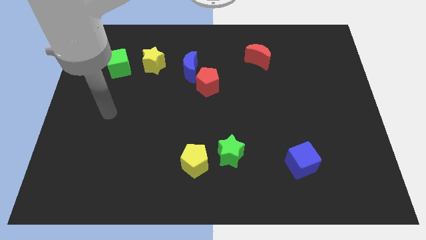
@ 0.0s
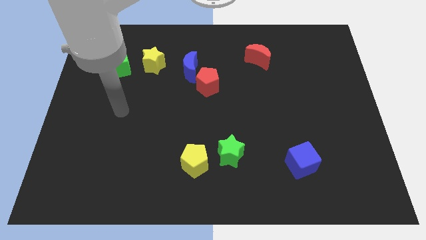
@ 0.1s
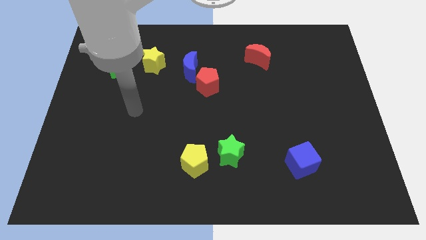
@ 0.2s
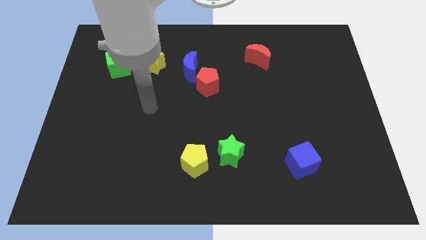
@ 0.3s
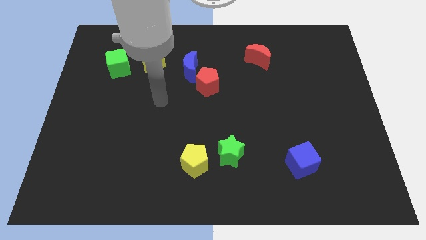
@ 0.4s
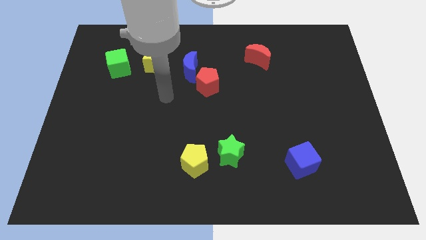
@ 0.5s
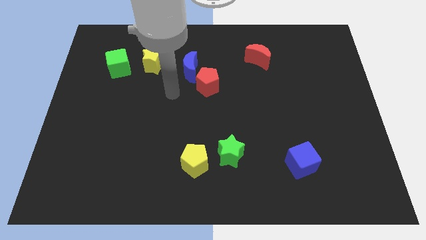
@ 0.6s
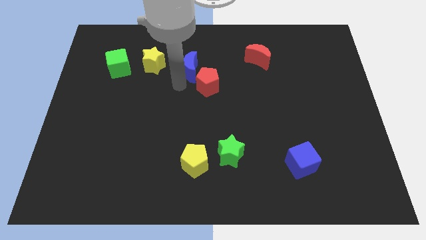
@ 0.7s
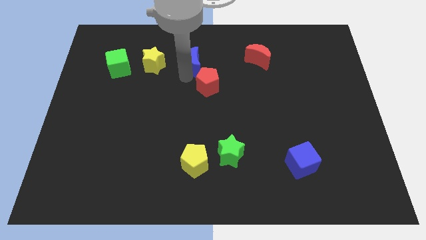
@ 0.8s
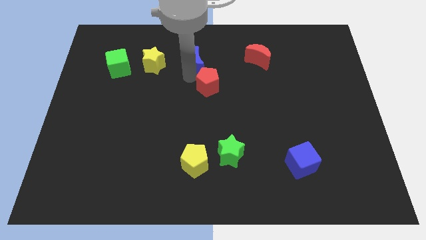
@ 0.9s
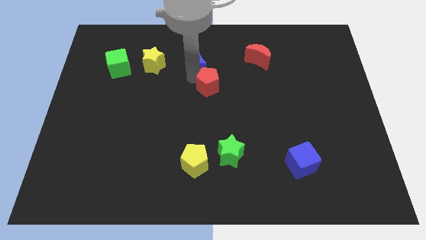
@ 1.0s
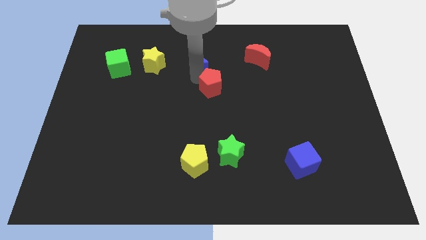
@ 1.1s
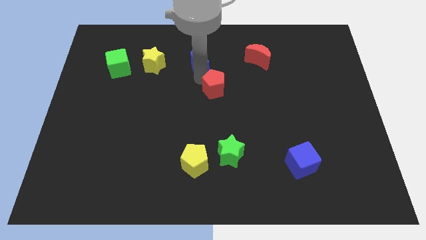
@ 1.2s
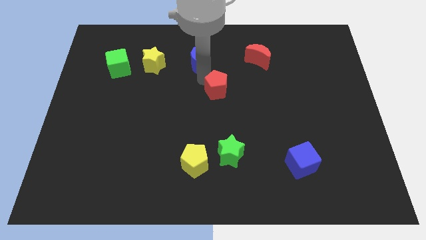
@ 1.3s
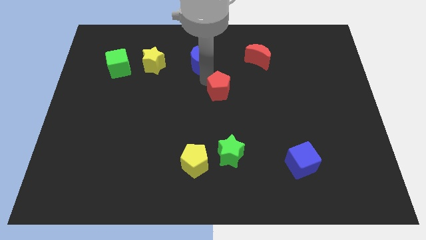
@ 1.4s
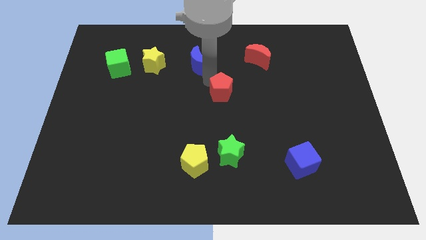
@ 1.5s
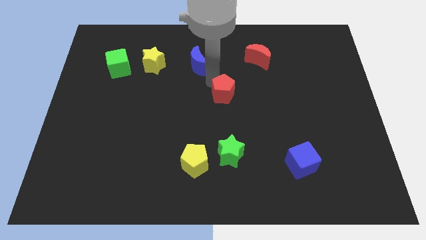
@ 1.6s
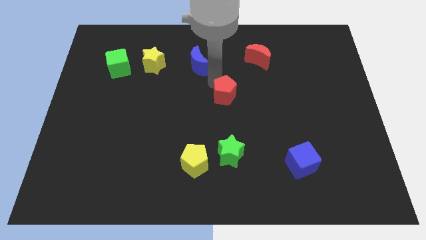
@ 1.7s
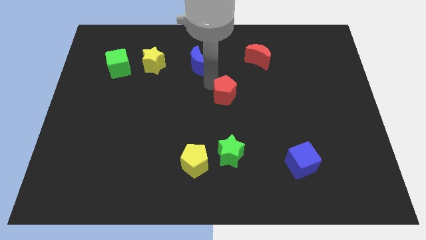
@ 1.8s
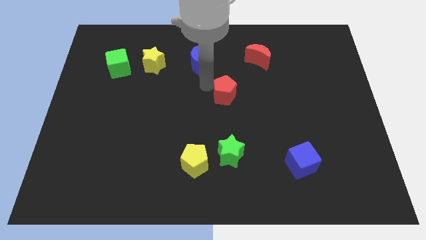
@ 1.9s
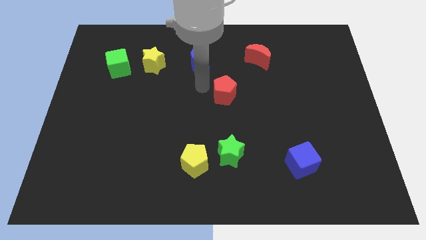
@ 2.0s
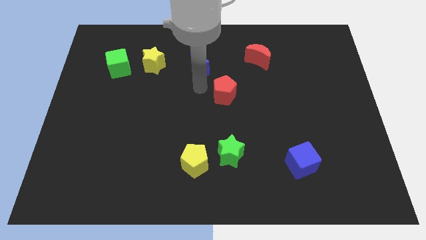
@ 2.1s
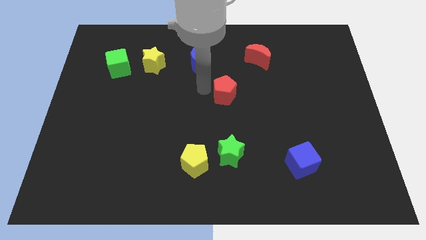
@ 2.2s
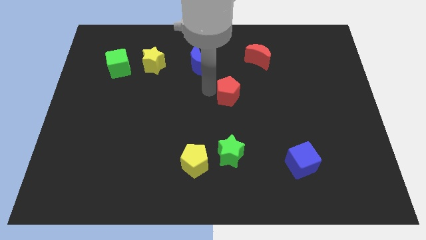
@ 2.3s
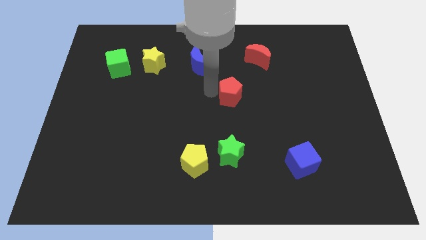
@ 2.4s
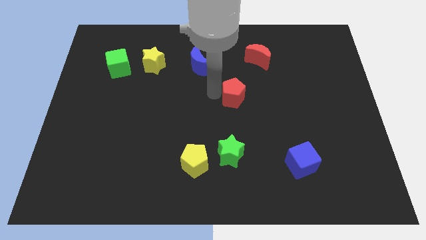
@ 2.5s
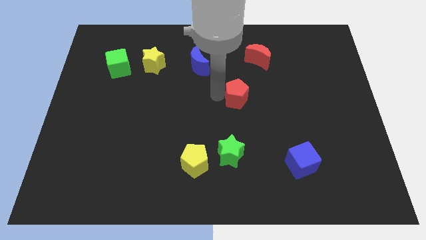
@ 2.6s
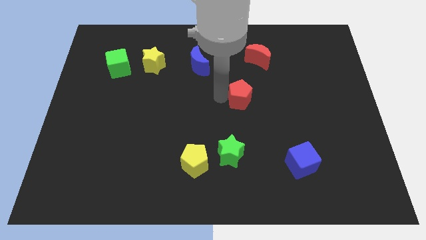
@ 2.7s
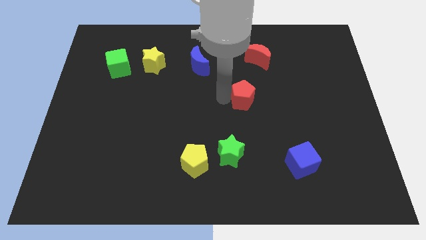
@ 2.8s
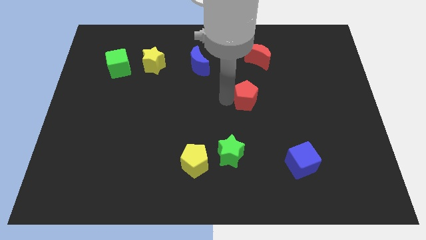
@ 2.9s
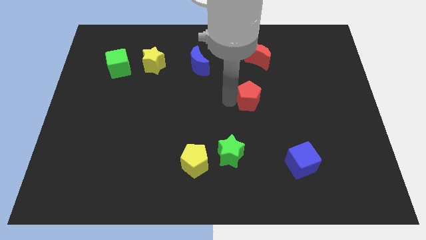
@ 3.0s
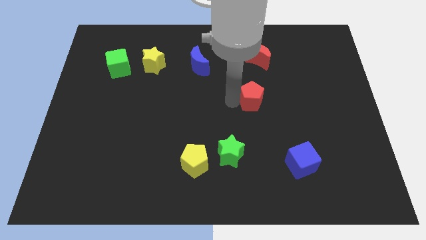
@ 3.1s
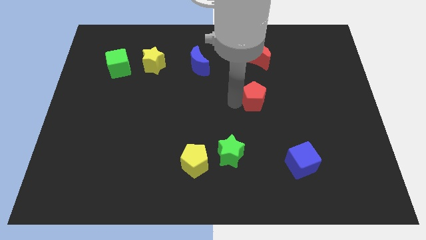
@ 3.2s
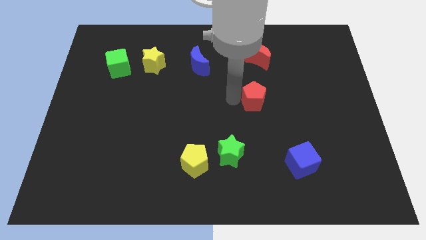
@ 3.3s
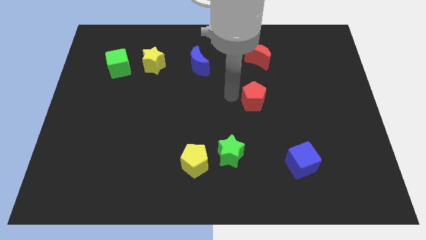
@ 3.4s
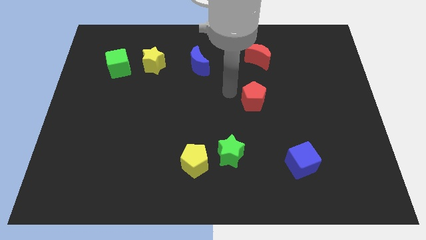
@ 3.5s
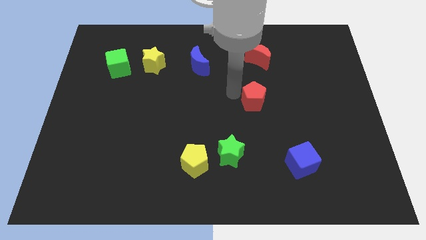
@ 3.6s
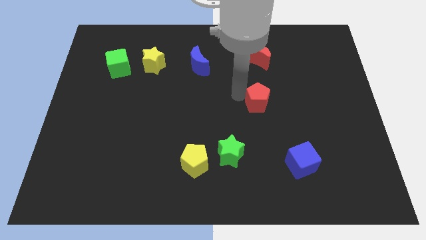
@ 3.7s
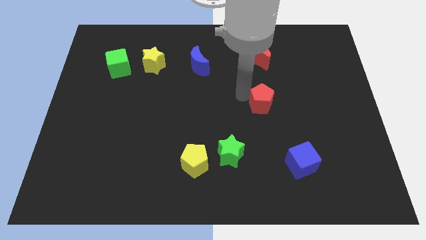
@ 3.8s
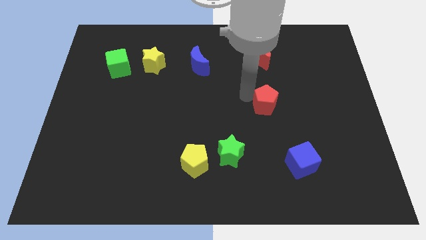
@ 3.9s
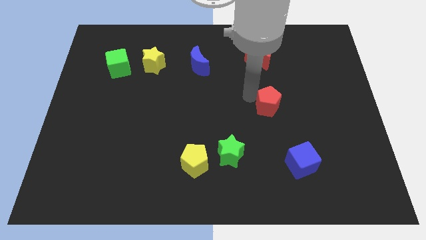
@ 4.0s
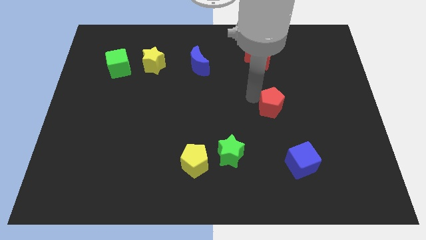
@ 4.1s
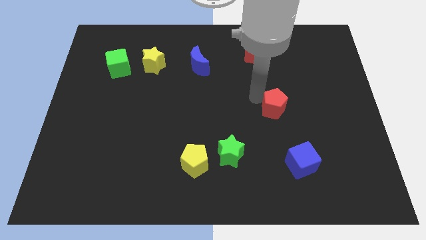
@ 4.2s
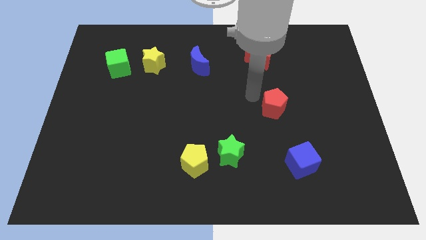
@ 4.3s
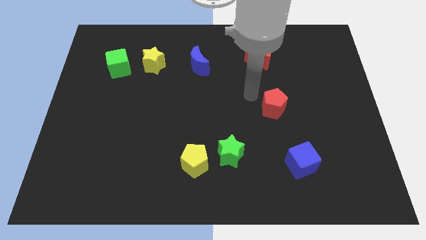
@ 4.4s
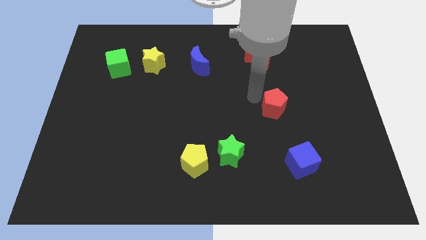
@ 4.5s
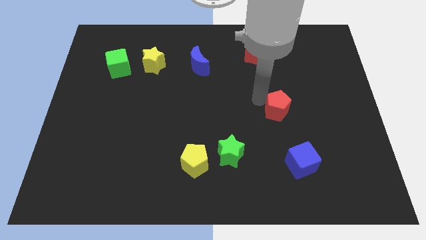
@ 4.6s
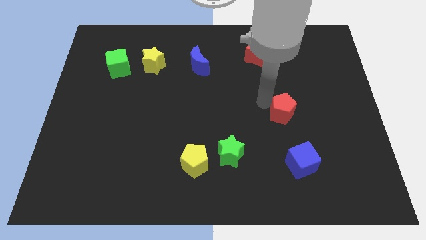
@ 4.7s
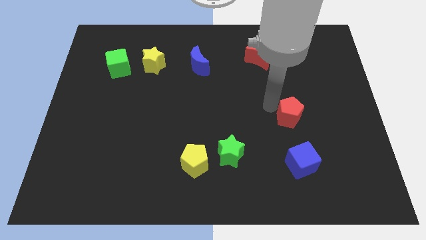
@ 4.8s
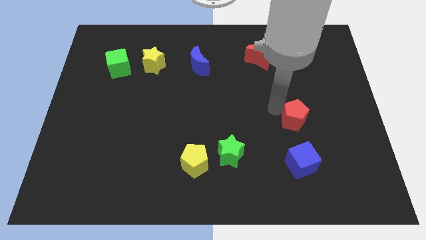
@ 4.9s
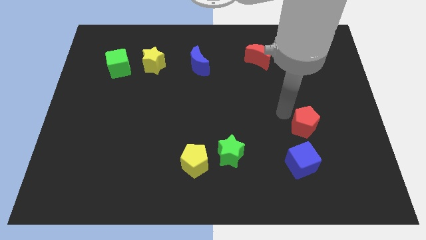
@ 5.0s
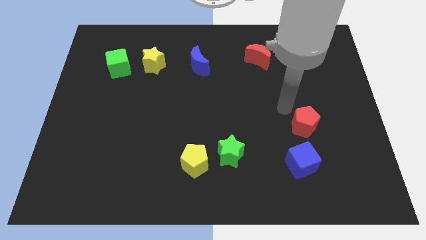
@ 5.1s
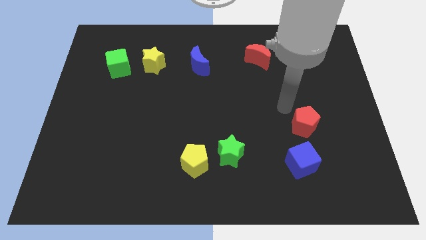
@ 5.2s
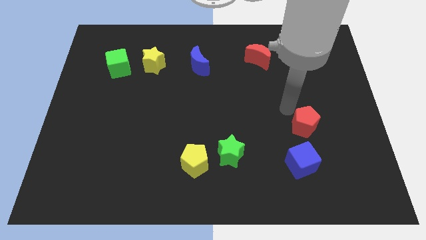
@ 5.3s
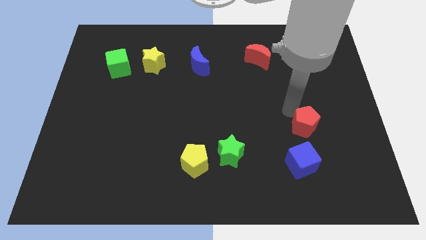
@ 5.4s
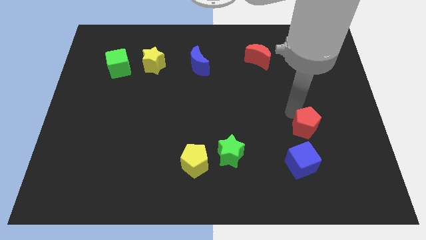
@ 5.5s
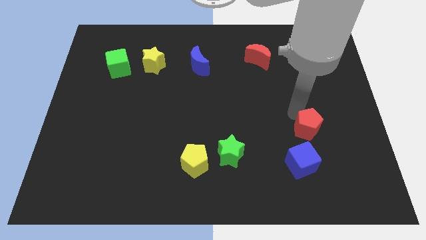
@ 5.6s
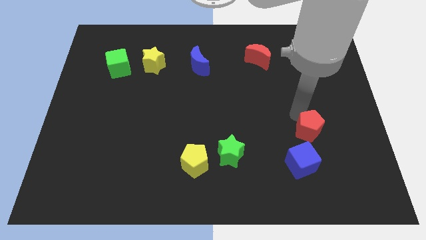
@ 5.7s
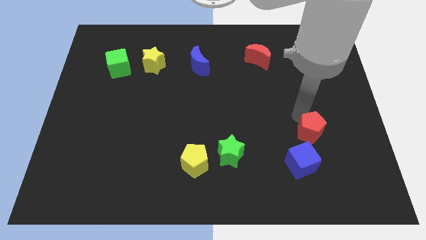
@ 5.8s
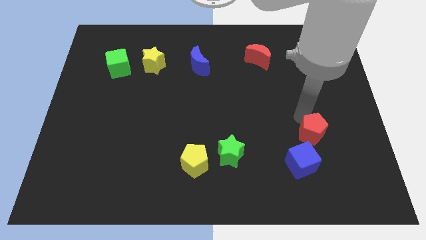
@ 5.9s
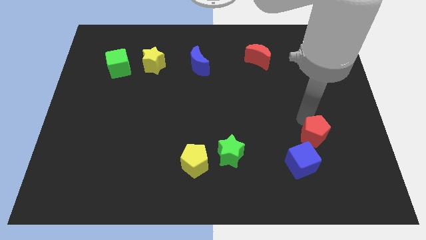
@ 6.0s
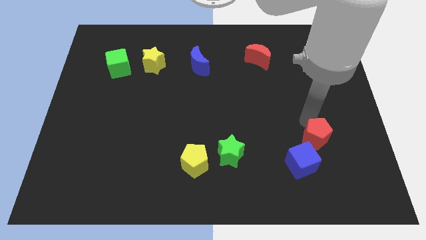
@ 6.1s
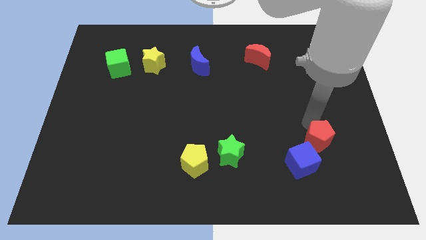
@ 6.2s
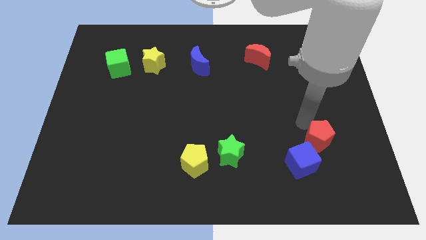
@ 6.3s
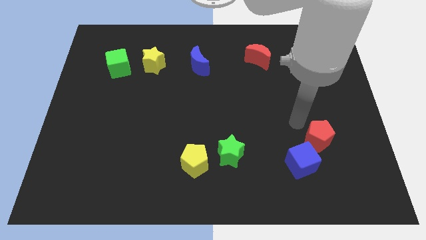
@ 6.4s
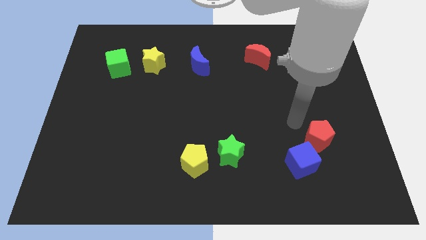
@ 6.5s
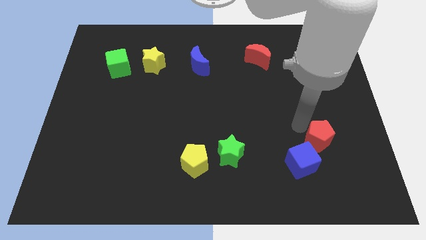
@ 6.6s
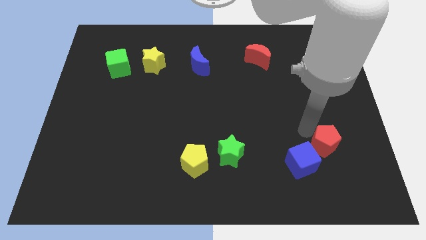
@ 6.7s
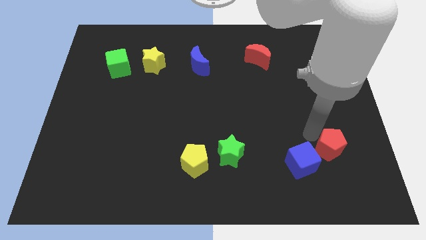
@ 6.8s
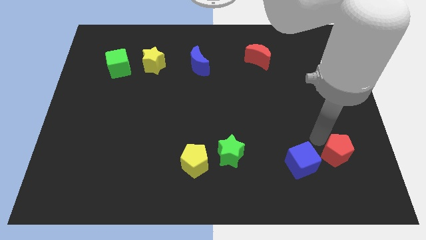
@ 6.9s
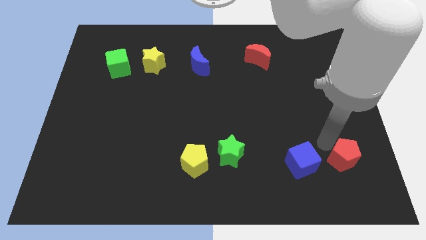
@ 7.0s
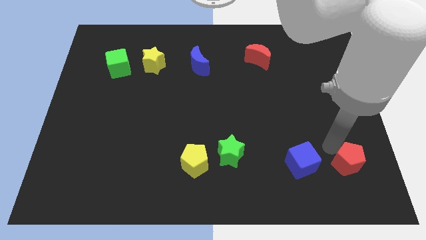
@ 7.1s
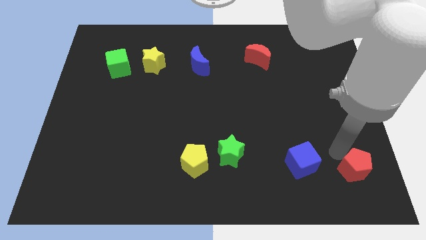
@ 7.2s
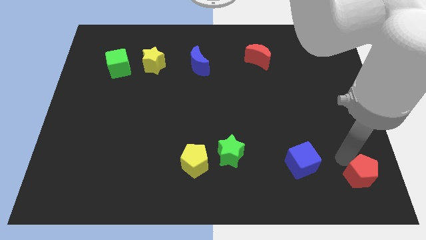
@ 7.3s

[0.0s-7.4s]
slide the red pentagon to the bottom right of the board
